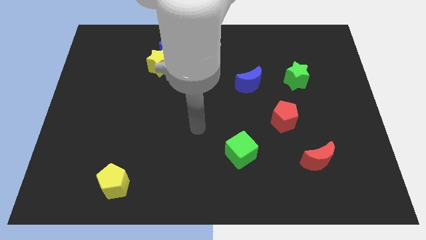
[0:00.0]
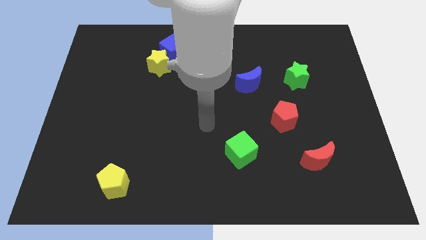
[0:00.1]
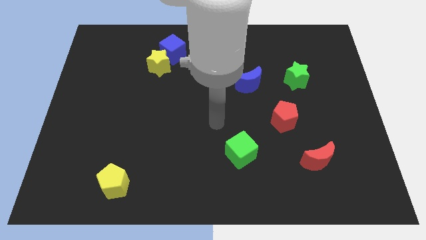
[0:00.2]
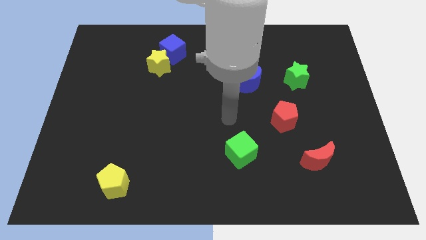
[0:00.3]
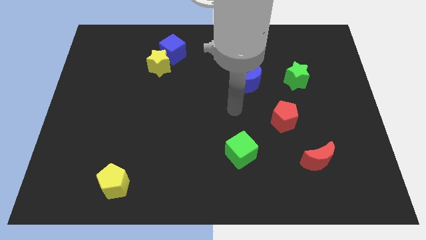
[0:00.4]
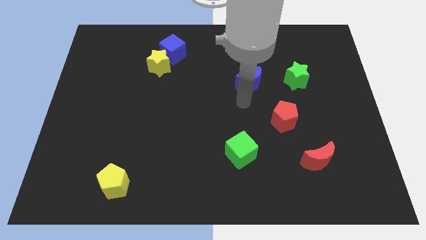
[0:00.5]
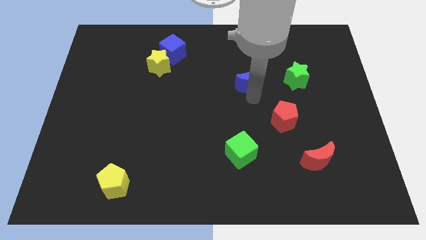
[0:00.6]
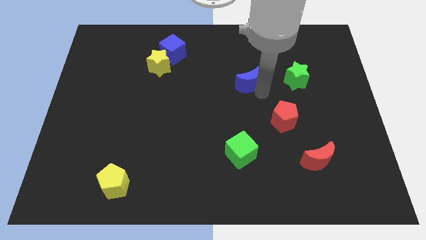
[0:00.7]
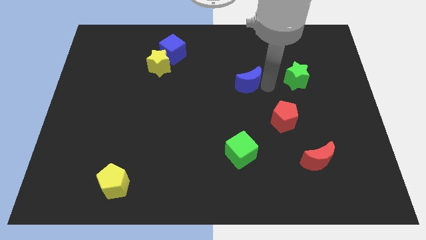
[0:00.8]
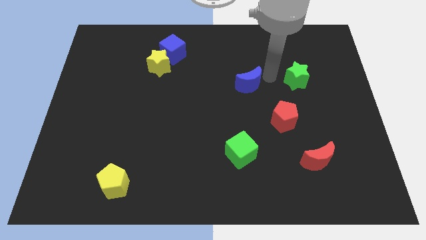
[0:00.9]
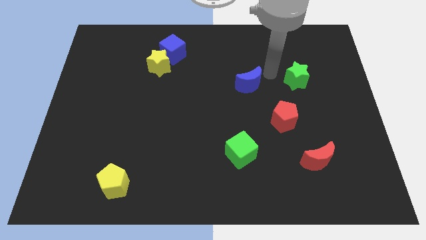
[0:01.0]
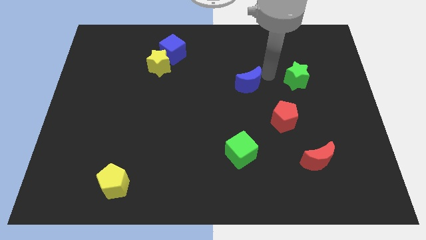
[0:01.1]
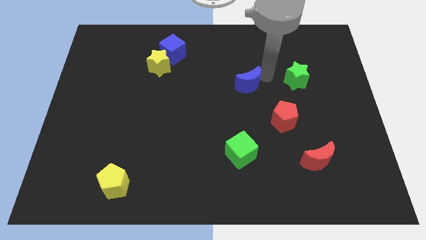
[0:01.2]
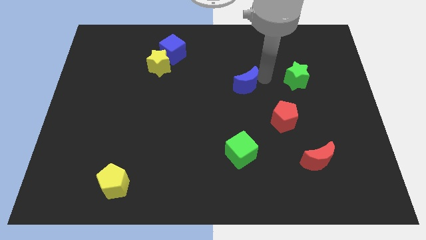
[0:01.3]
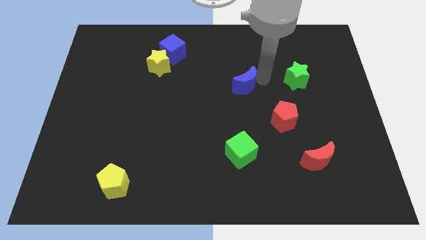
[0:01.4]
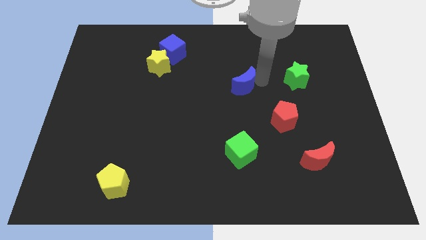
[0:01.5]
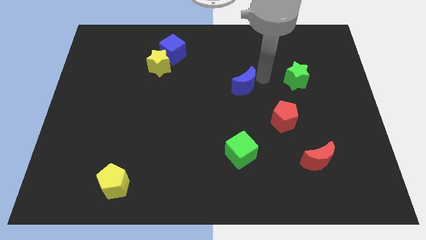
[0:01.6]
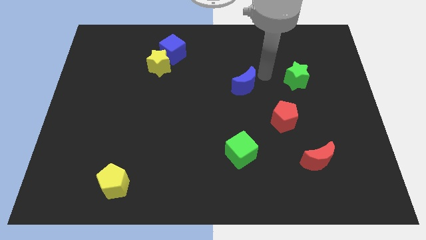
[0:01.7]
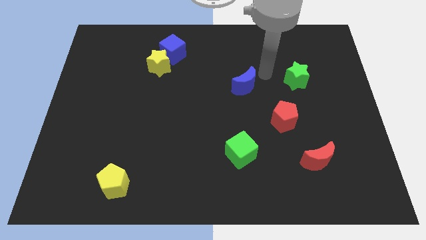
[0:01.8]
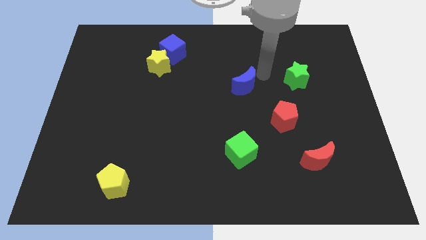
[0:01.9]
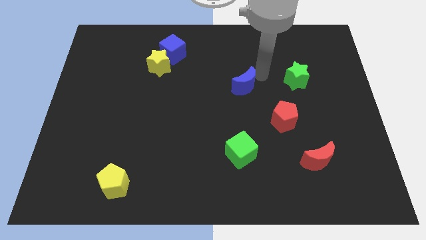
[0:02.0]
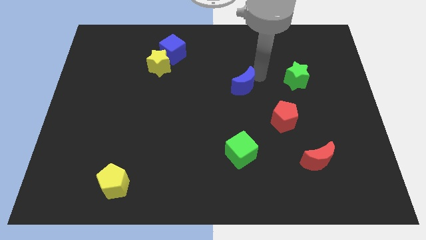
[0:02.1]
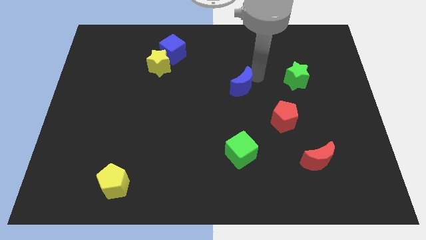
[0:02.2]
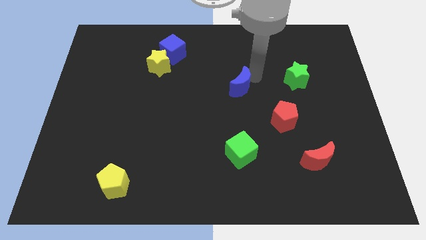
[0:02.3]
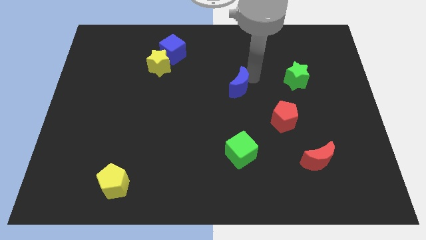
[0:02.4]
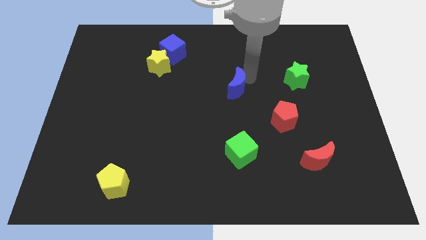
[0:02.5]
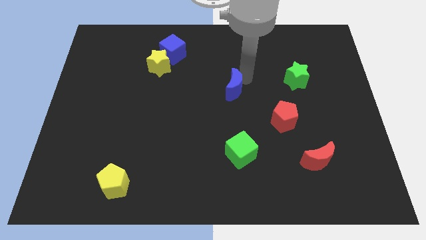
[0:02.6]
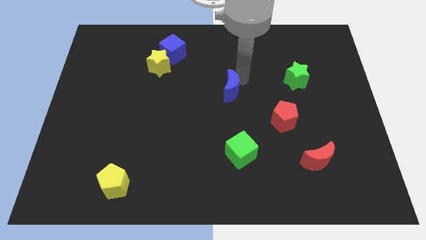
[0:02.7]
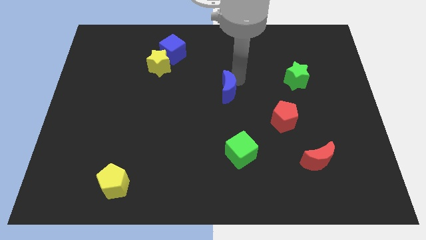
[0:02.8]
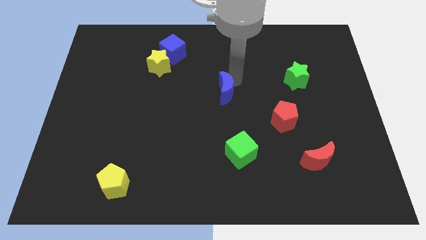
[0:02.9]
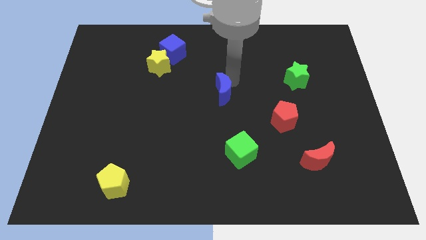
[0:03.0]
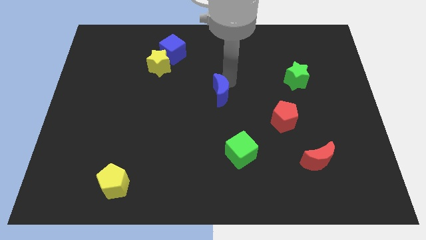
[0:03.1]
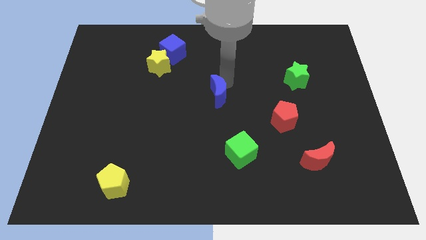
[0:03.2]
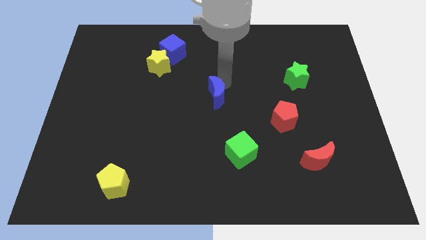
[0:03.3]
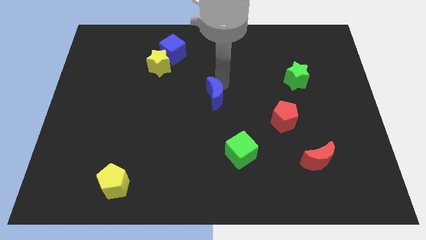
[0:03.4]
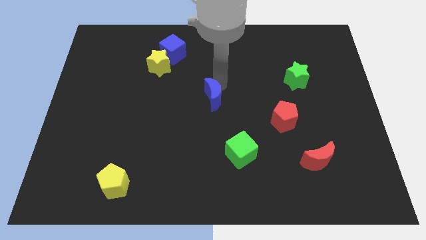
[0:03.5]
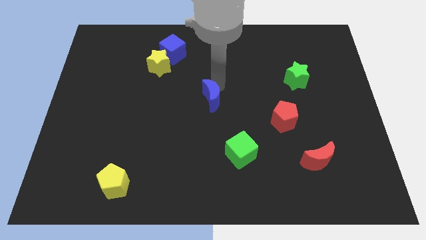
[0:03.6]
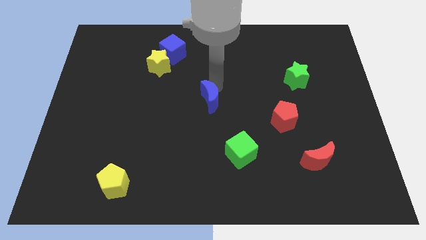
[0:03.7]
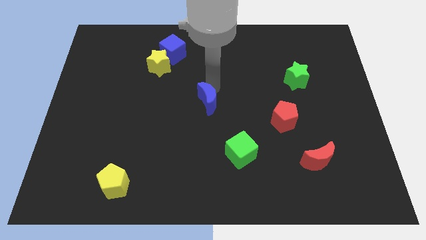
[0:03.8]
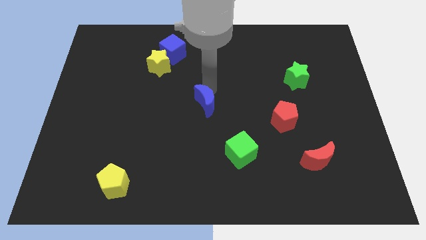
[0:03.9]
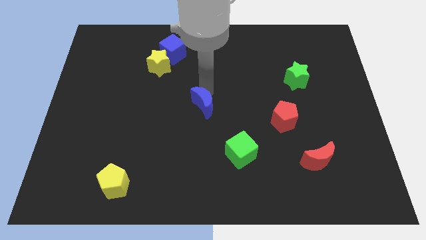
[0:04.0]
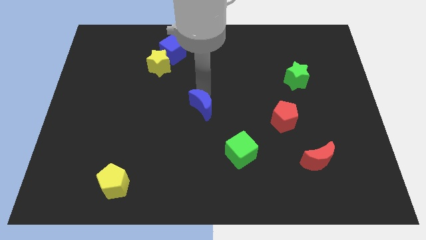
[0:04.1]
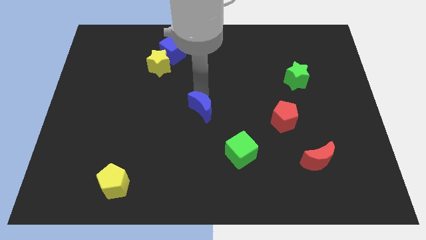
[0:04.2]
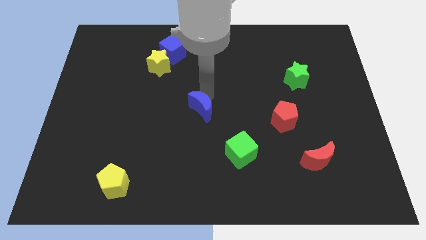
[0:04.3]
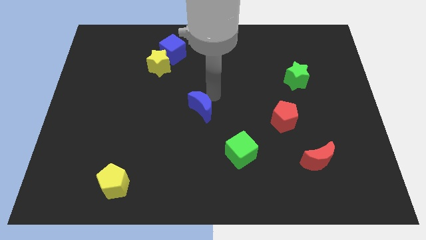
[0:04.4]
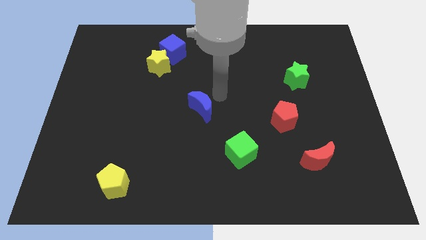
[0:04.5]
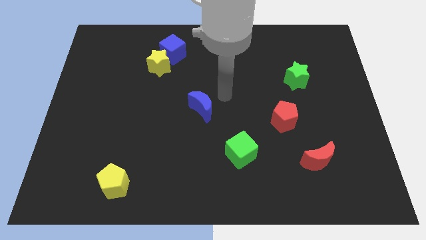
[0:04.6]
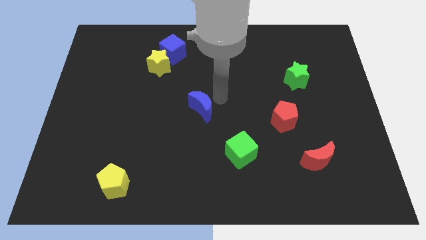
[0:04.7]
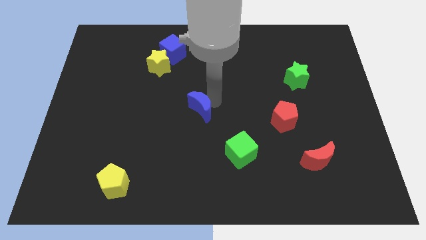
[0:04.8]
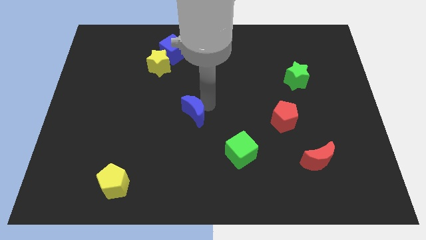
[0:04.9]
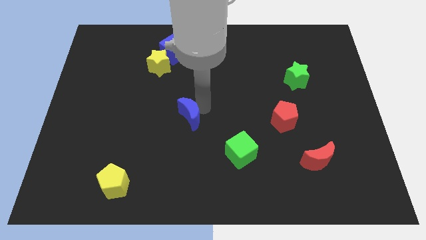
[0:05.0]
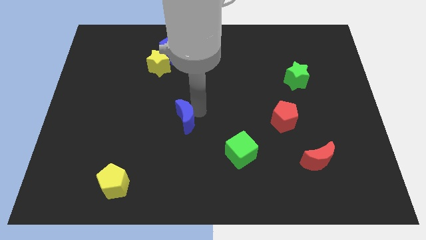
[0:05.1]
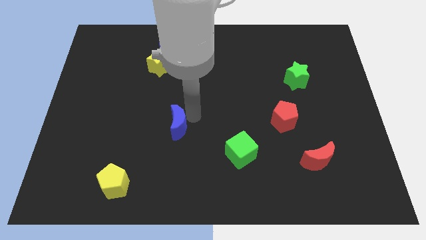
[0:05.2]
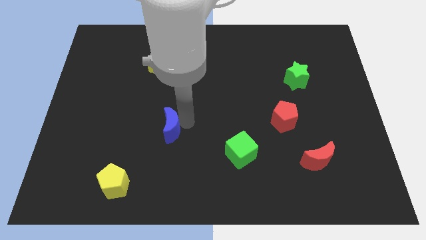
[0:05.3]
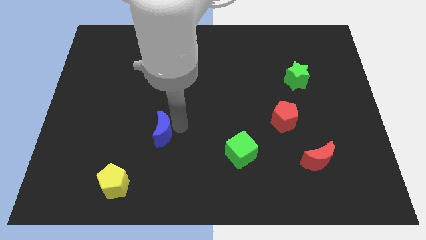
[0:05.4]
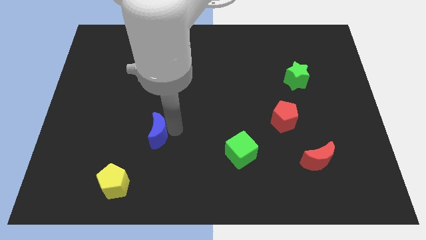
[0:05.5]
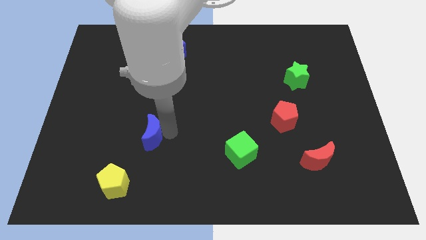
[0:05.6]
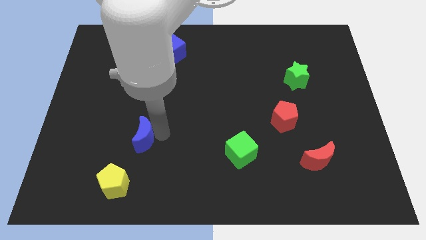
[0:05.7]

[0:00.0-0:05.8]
push the blue moon to the top side of the yellow pentagon

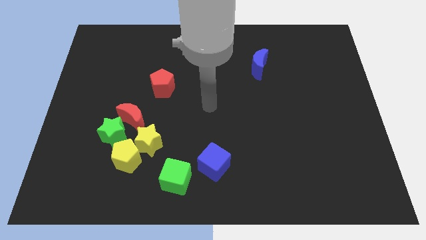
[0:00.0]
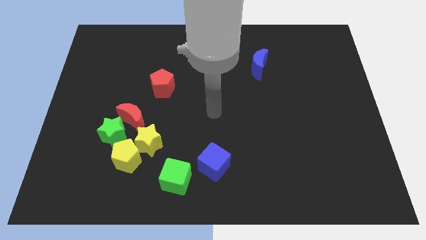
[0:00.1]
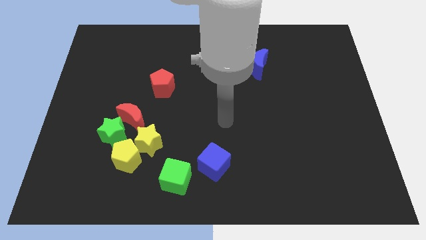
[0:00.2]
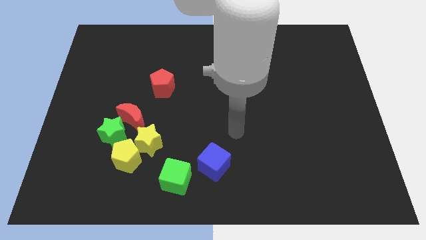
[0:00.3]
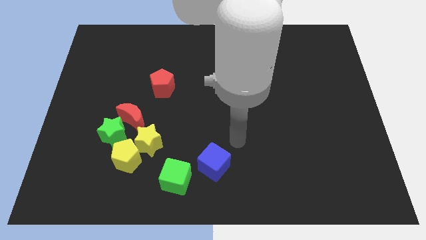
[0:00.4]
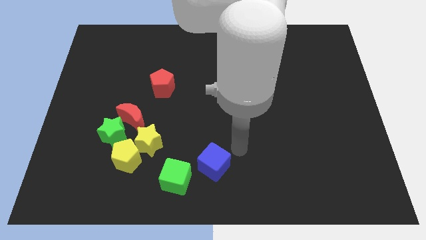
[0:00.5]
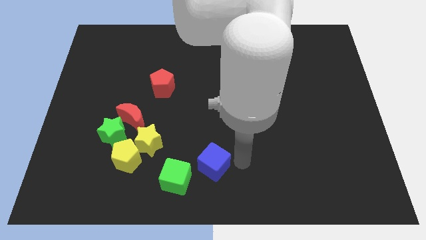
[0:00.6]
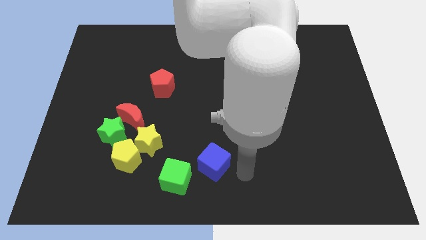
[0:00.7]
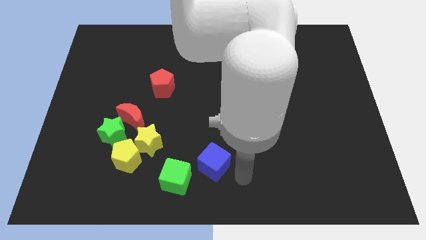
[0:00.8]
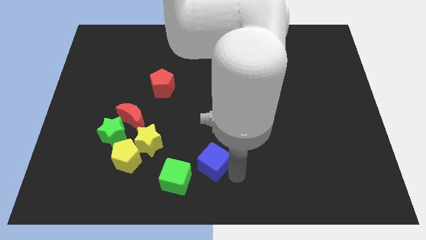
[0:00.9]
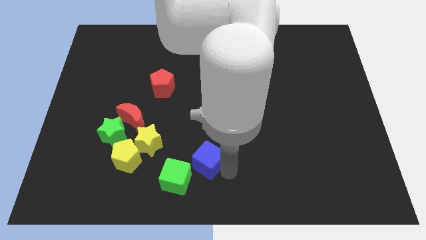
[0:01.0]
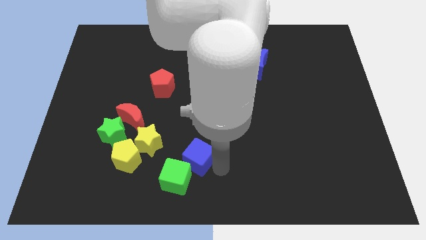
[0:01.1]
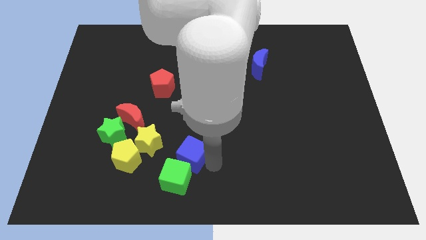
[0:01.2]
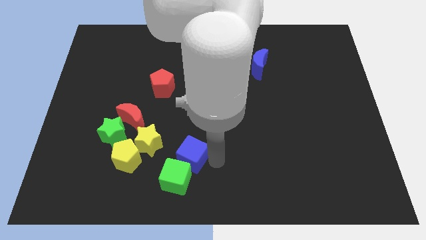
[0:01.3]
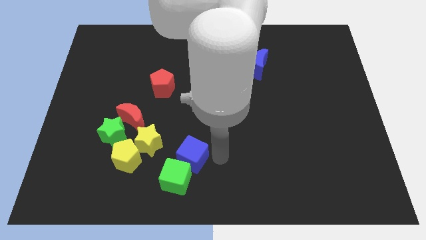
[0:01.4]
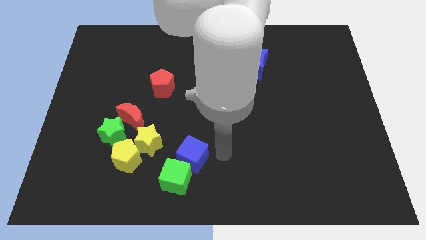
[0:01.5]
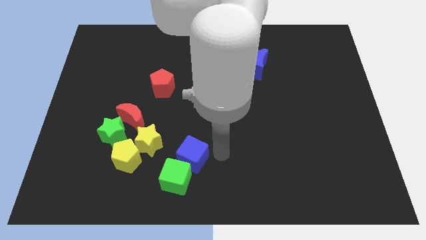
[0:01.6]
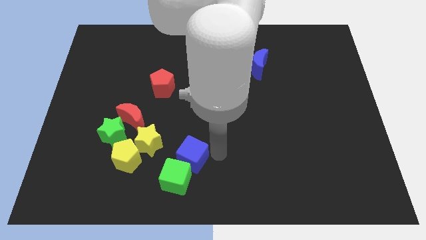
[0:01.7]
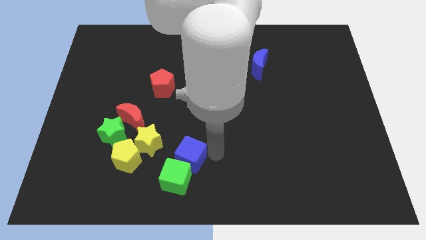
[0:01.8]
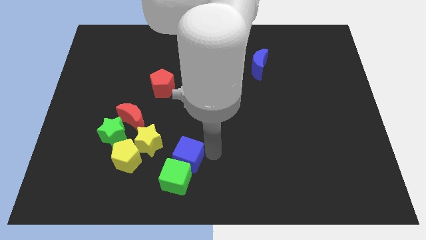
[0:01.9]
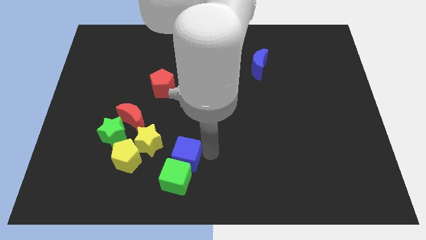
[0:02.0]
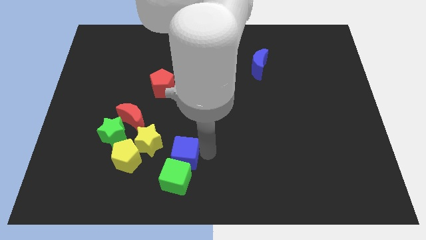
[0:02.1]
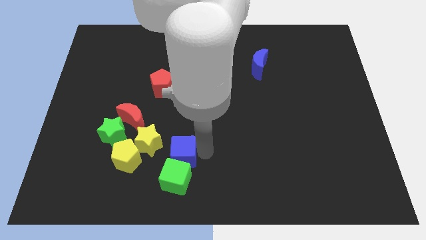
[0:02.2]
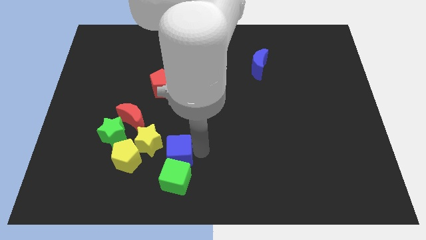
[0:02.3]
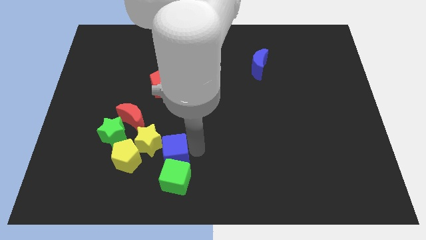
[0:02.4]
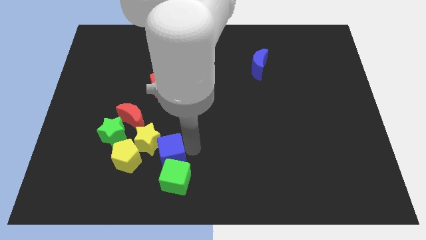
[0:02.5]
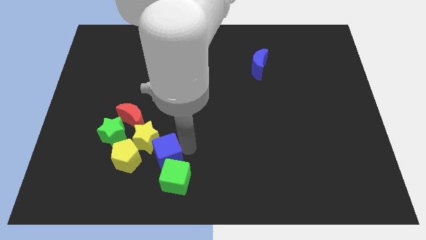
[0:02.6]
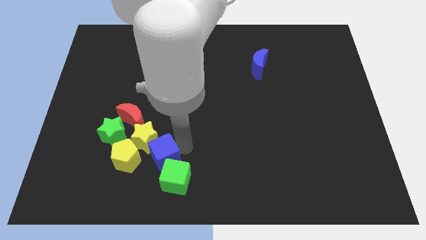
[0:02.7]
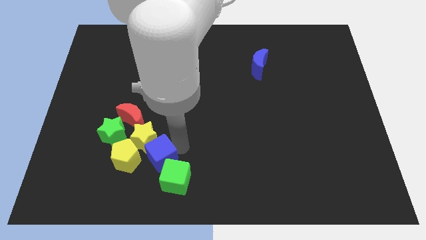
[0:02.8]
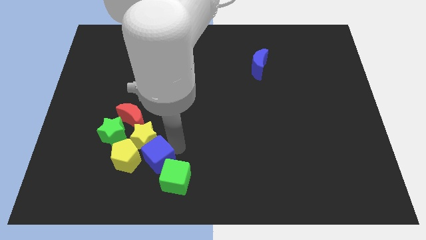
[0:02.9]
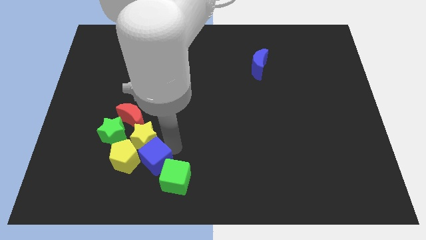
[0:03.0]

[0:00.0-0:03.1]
move the blue cube to the bottom right of the yellow pentagon
